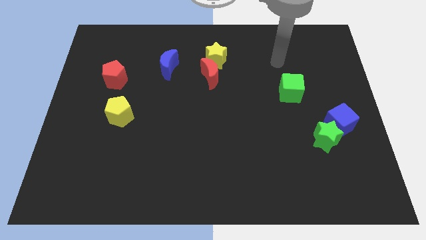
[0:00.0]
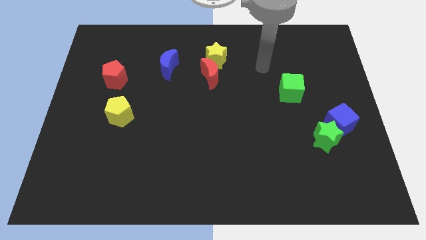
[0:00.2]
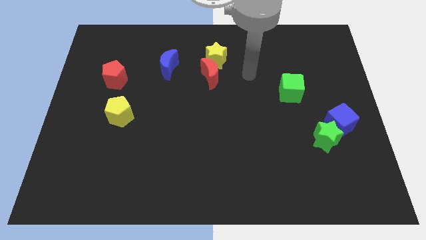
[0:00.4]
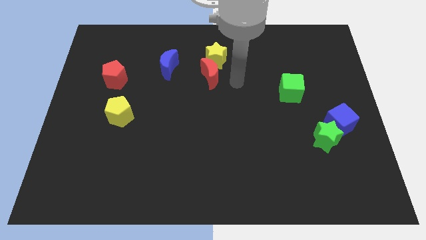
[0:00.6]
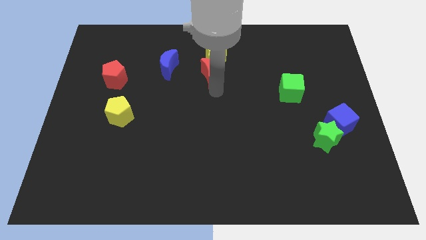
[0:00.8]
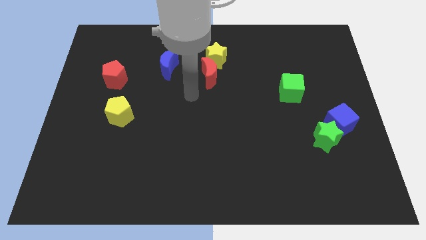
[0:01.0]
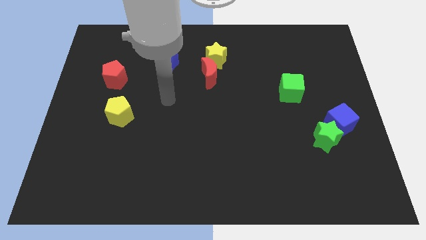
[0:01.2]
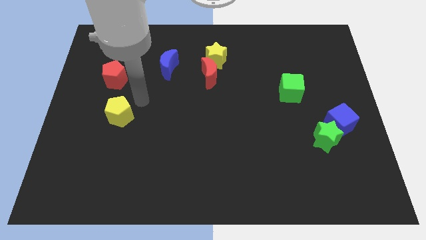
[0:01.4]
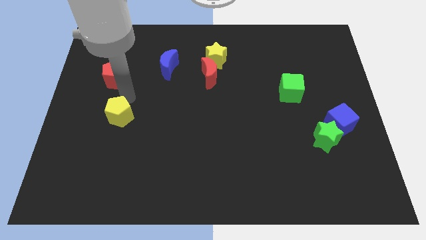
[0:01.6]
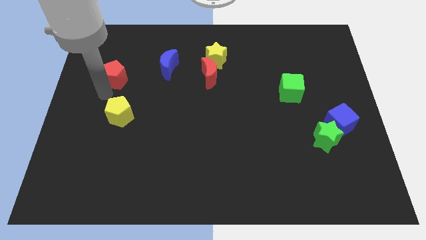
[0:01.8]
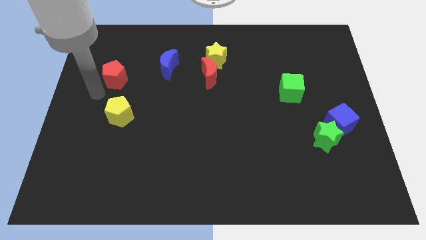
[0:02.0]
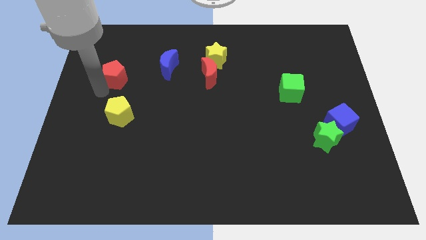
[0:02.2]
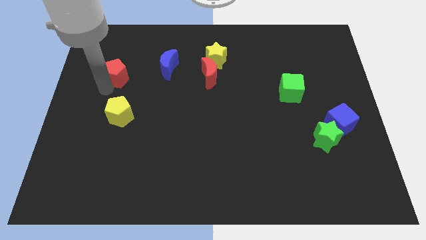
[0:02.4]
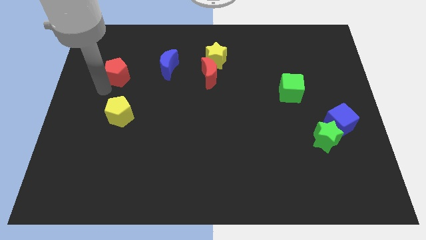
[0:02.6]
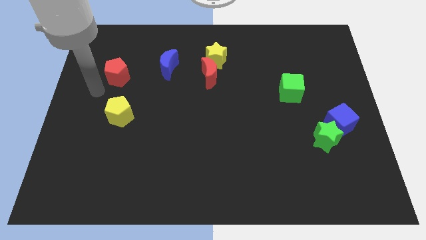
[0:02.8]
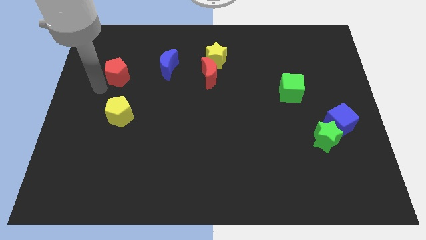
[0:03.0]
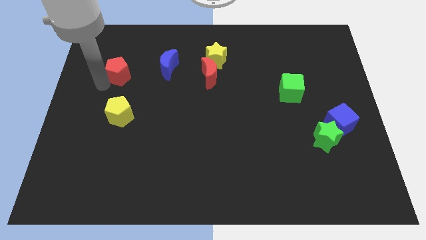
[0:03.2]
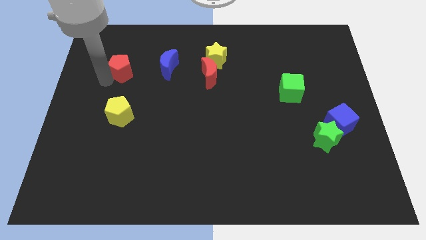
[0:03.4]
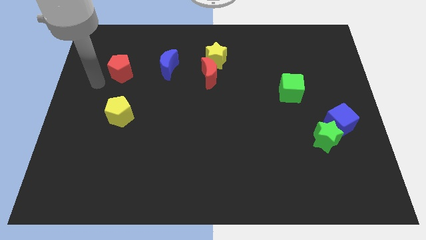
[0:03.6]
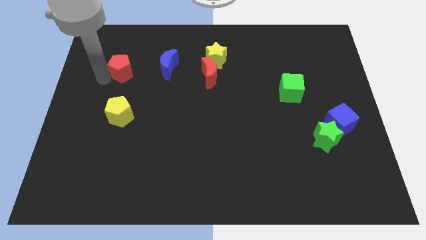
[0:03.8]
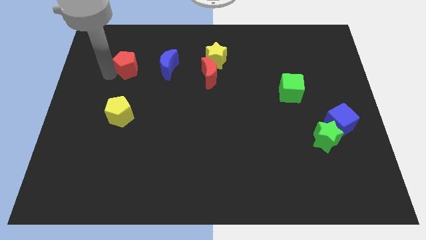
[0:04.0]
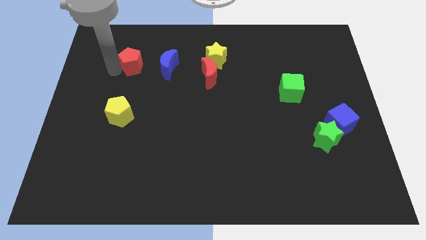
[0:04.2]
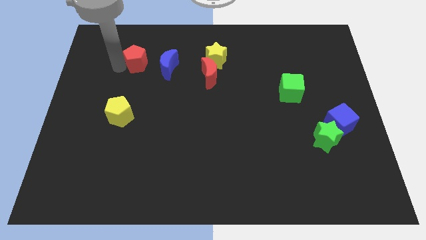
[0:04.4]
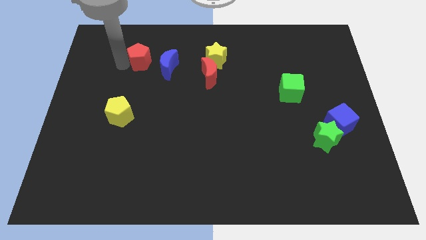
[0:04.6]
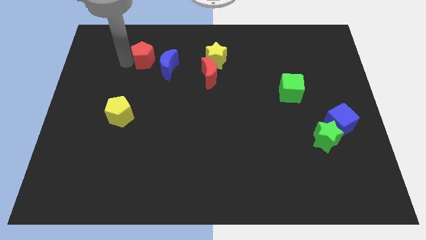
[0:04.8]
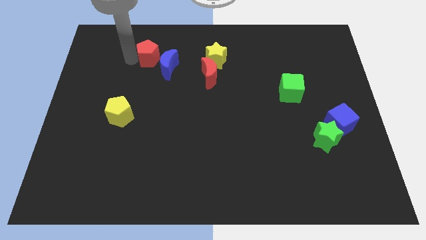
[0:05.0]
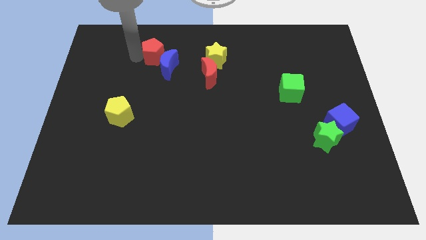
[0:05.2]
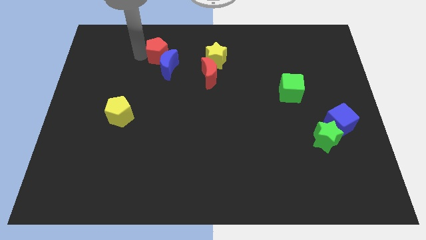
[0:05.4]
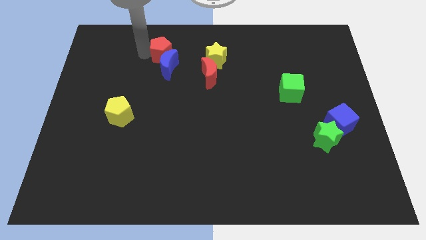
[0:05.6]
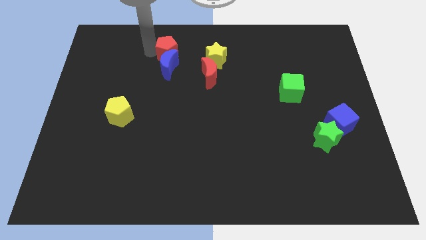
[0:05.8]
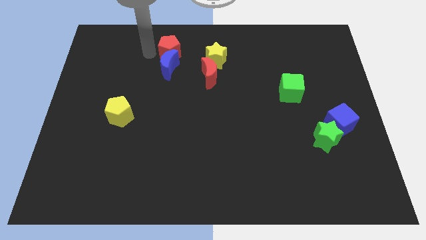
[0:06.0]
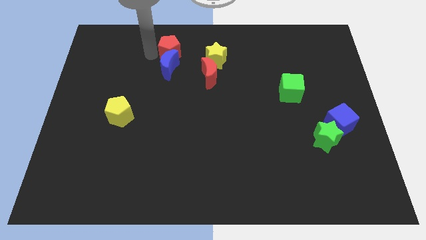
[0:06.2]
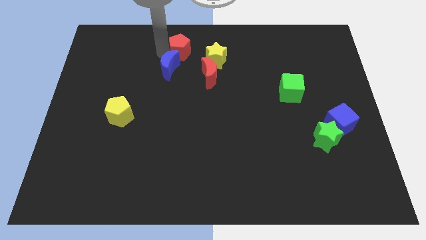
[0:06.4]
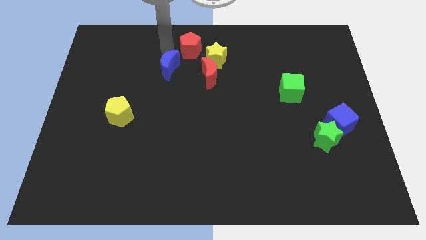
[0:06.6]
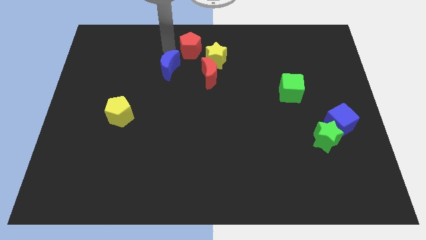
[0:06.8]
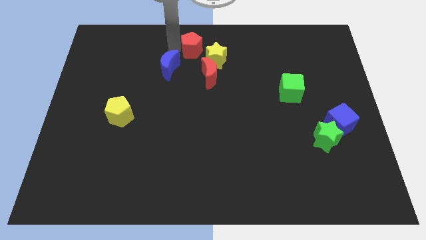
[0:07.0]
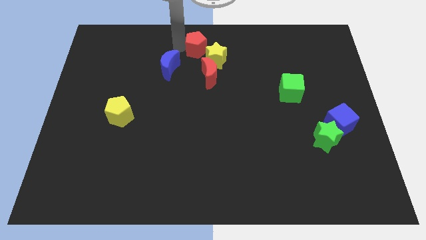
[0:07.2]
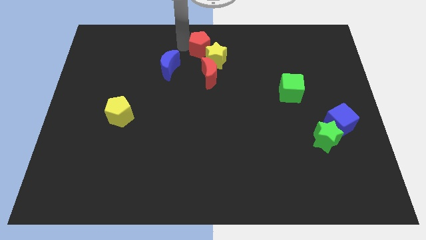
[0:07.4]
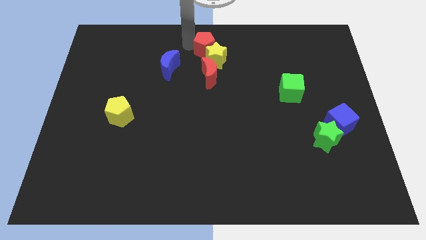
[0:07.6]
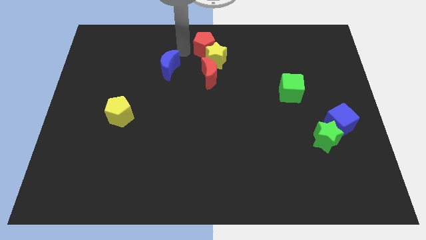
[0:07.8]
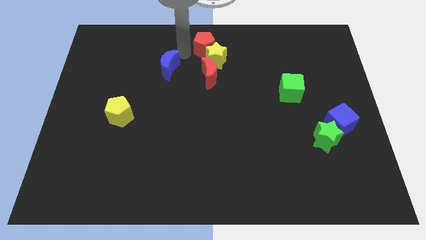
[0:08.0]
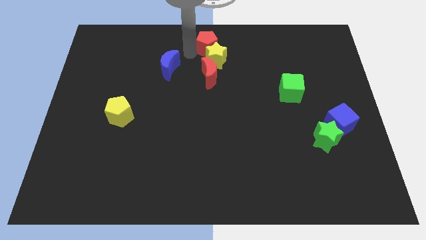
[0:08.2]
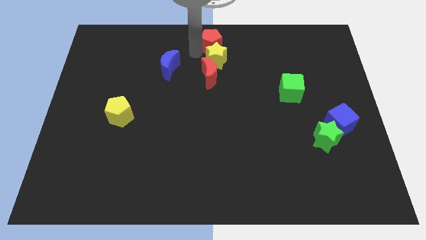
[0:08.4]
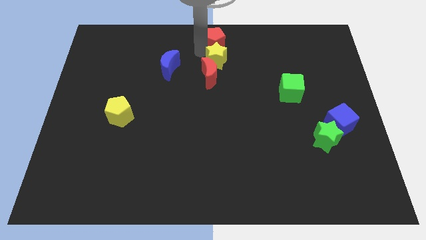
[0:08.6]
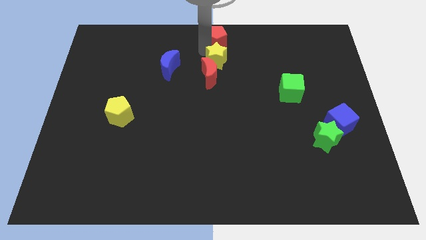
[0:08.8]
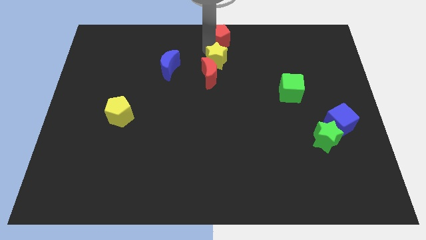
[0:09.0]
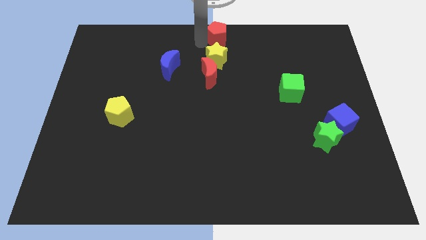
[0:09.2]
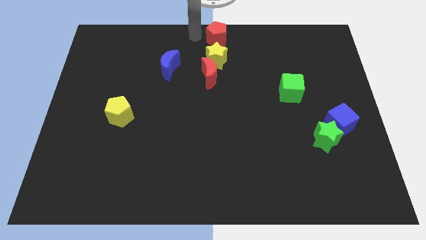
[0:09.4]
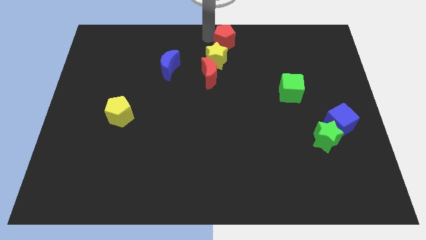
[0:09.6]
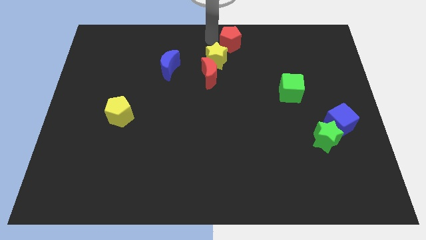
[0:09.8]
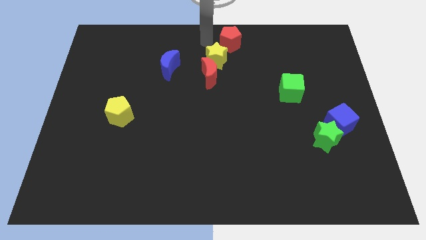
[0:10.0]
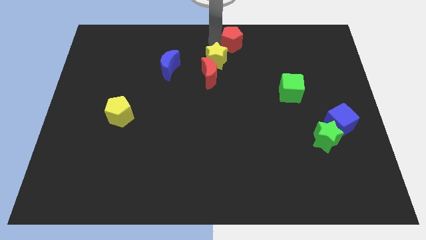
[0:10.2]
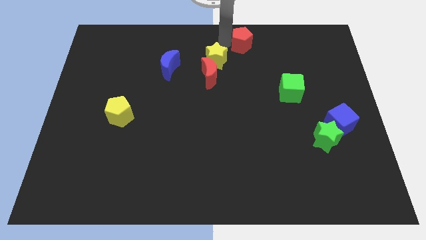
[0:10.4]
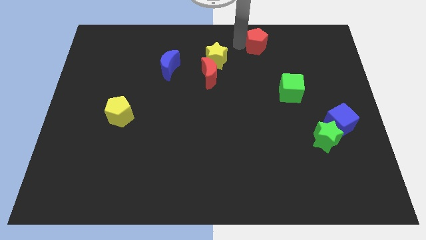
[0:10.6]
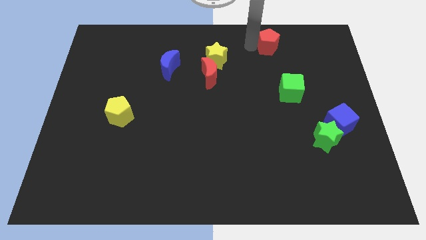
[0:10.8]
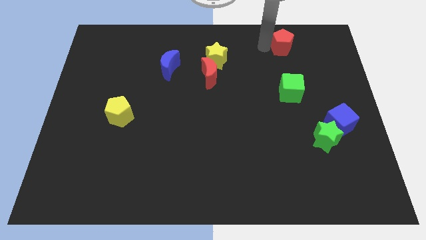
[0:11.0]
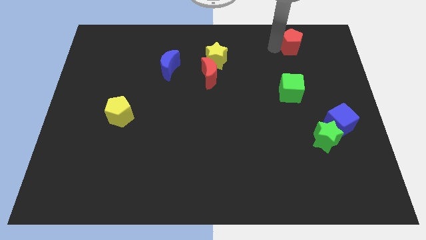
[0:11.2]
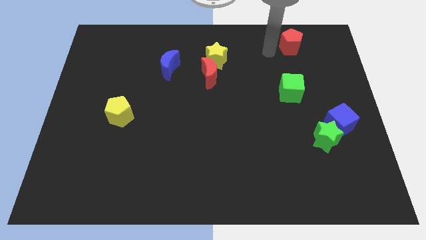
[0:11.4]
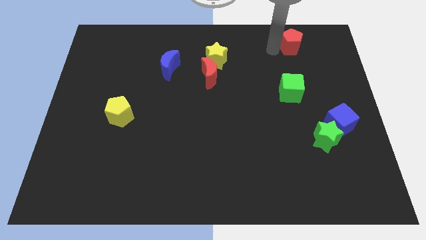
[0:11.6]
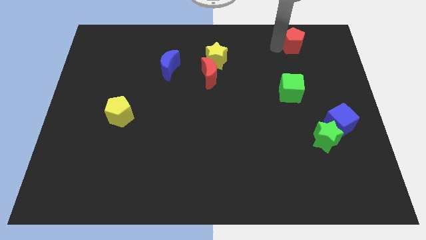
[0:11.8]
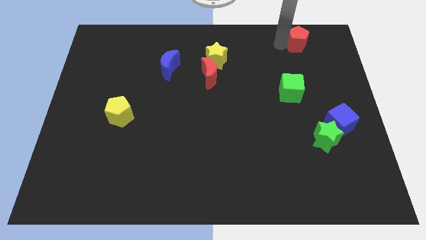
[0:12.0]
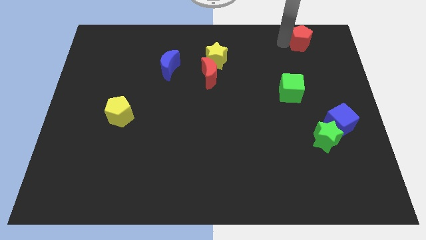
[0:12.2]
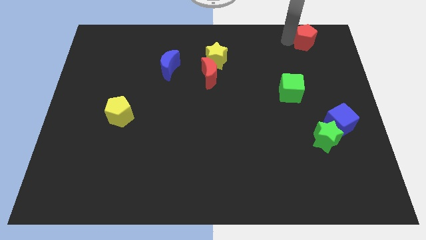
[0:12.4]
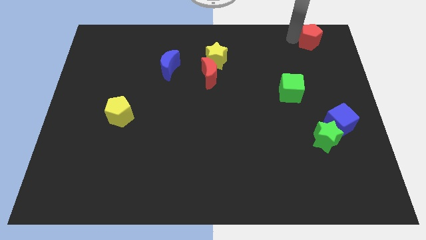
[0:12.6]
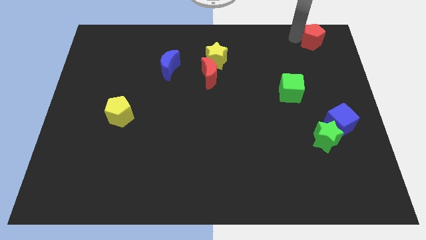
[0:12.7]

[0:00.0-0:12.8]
put the red pentagon to the top right corner
